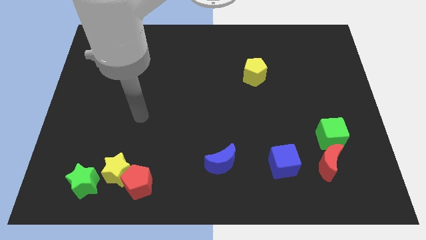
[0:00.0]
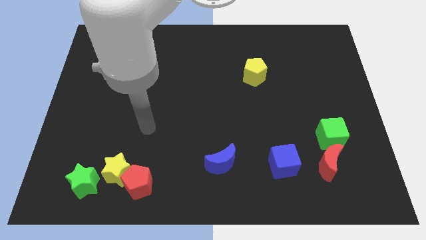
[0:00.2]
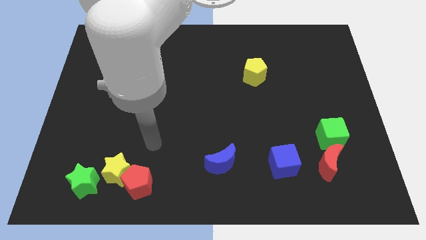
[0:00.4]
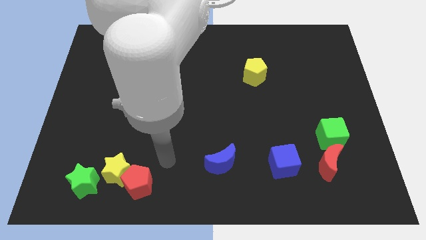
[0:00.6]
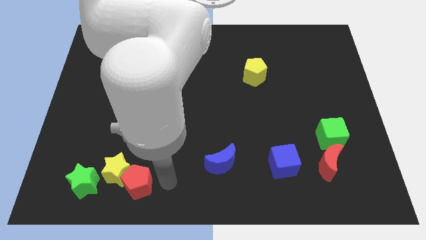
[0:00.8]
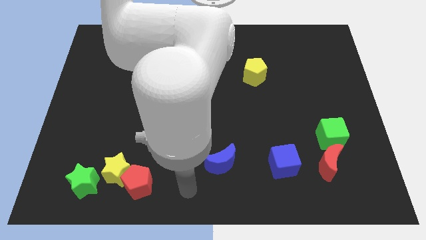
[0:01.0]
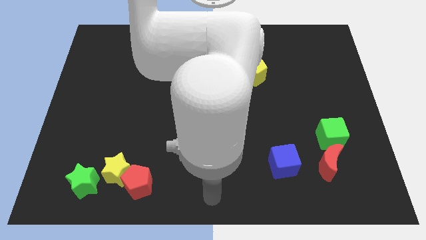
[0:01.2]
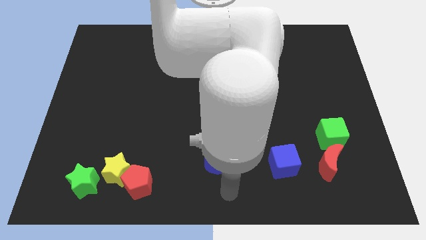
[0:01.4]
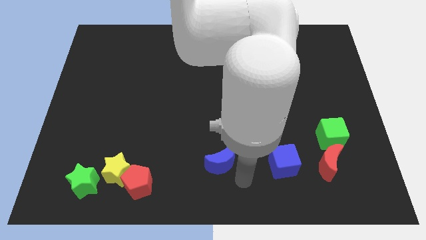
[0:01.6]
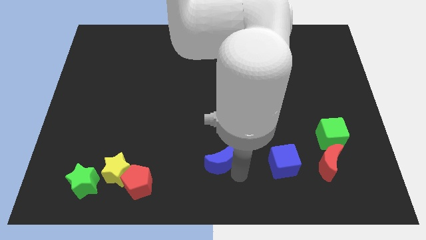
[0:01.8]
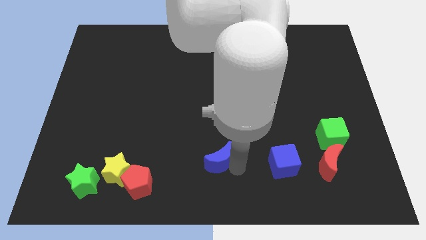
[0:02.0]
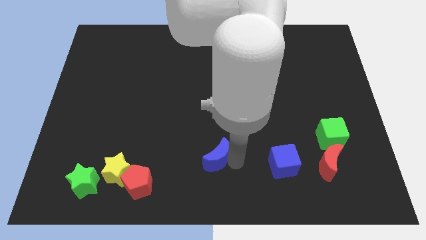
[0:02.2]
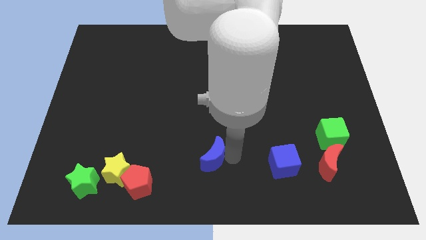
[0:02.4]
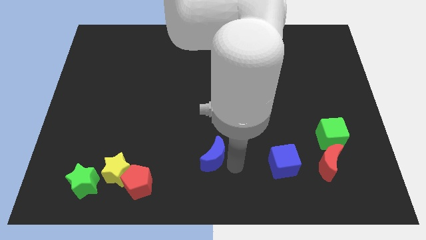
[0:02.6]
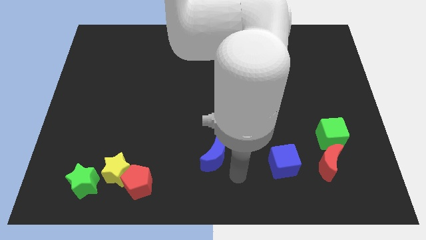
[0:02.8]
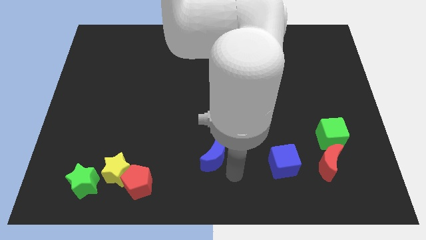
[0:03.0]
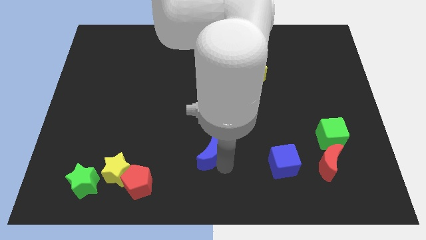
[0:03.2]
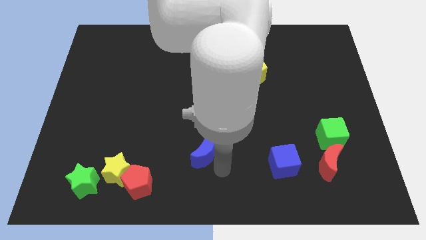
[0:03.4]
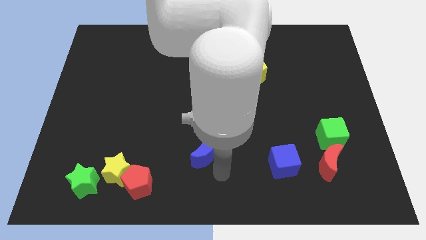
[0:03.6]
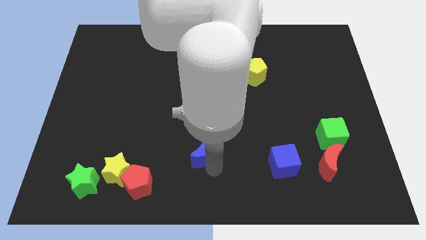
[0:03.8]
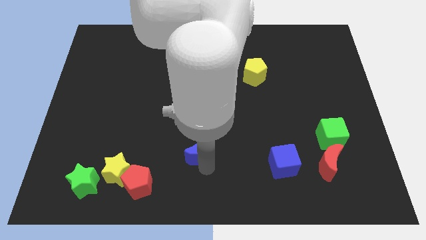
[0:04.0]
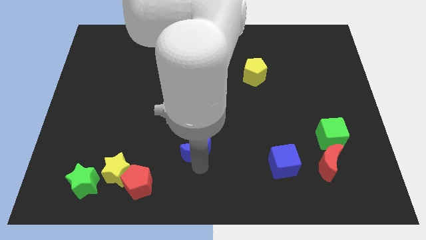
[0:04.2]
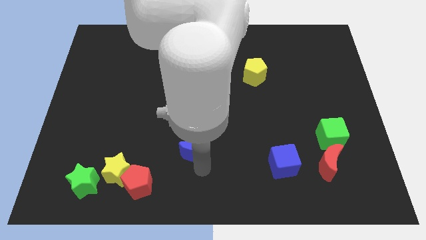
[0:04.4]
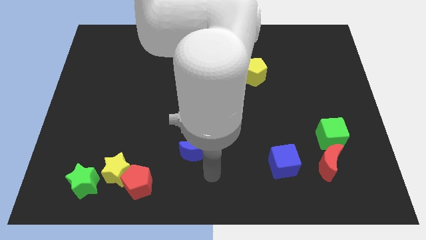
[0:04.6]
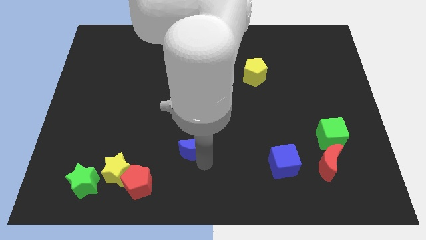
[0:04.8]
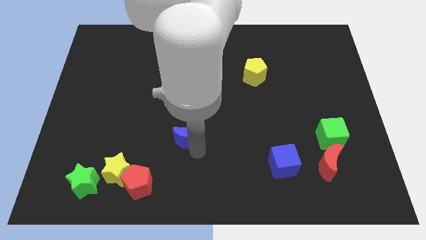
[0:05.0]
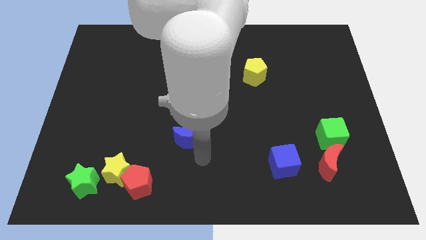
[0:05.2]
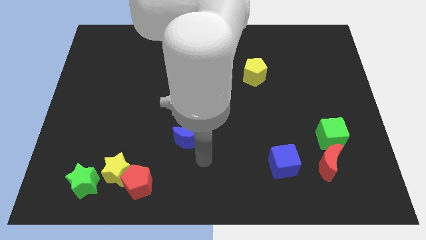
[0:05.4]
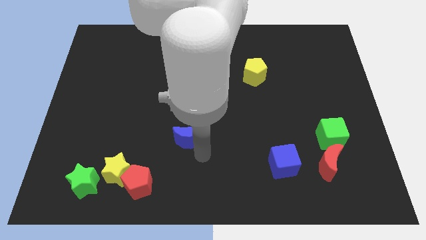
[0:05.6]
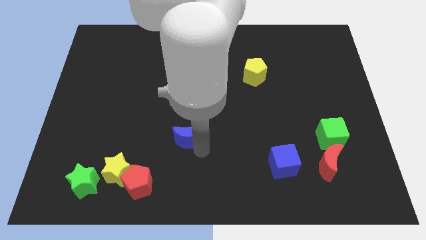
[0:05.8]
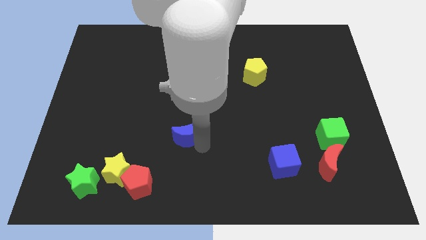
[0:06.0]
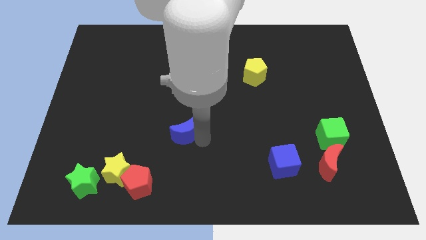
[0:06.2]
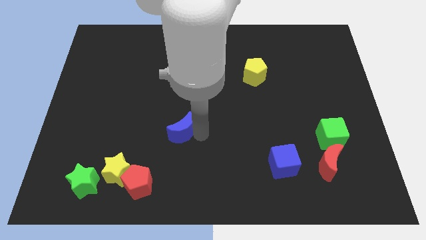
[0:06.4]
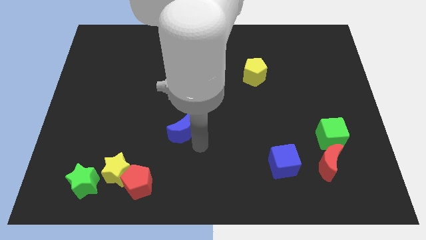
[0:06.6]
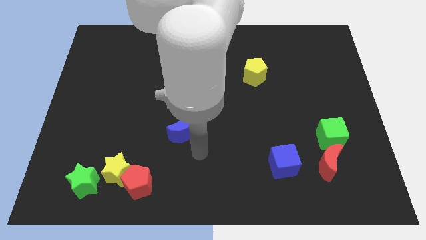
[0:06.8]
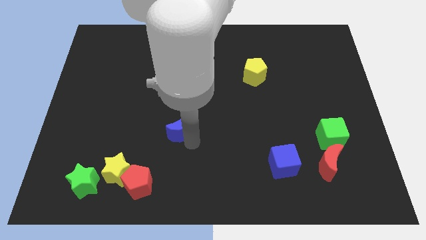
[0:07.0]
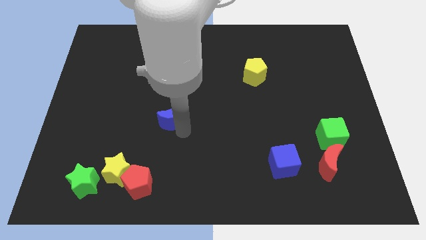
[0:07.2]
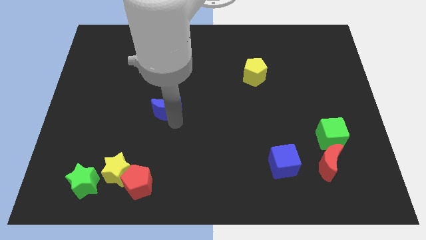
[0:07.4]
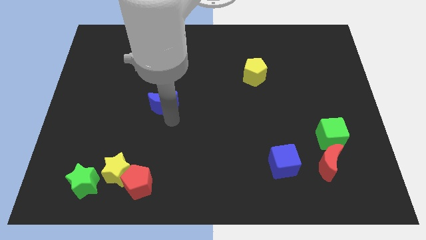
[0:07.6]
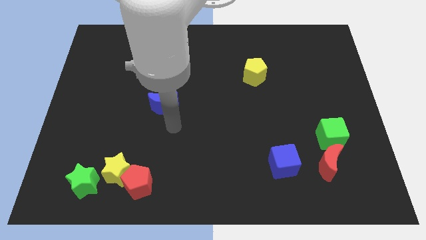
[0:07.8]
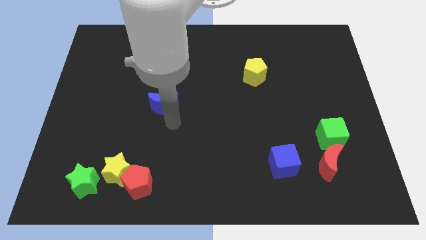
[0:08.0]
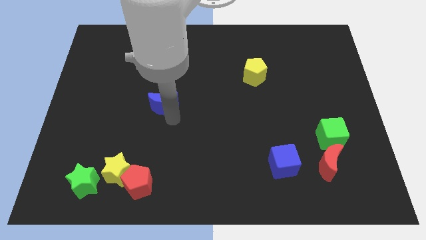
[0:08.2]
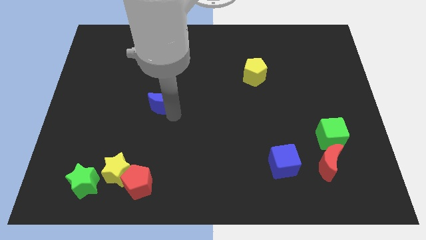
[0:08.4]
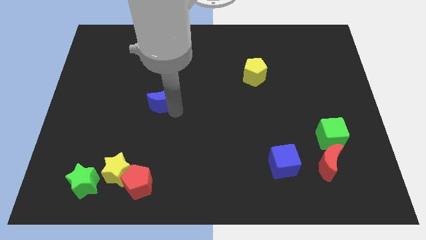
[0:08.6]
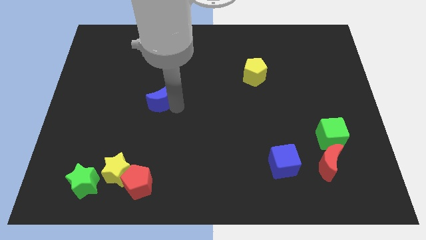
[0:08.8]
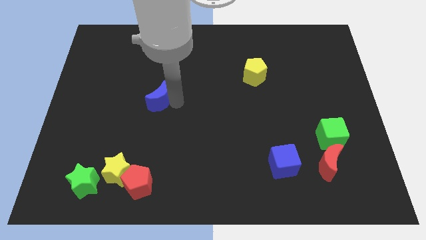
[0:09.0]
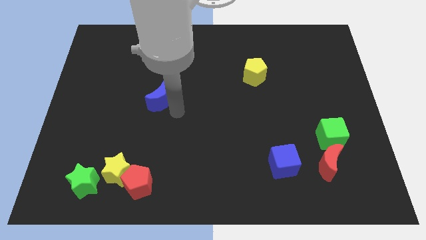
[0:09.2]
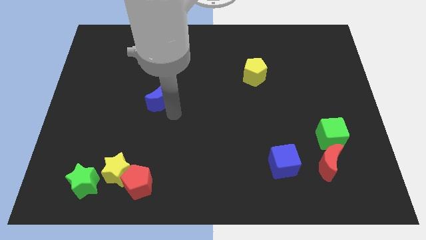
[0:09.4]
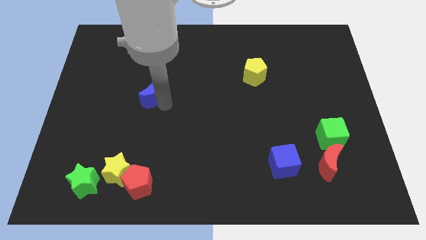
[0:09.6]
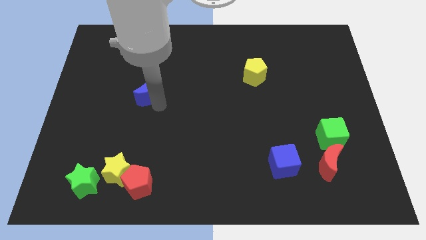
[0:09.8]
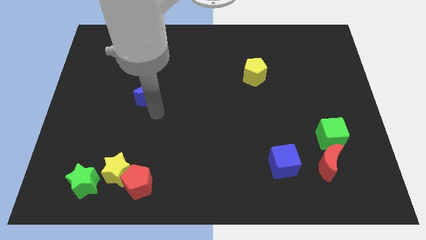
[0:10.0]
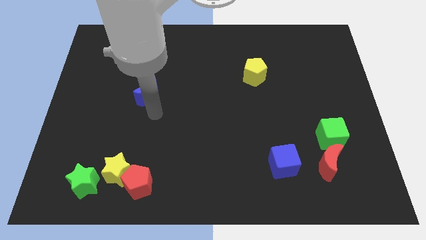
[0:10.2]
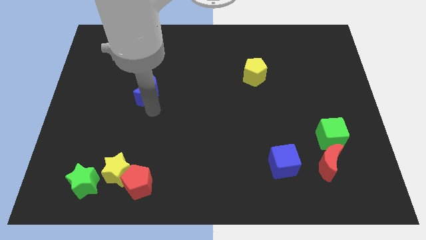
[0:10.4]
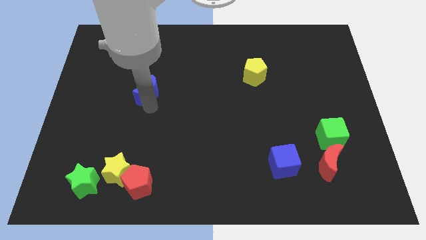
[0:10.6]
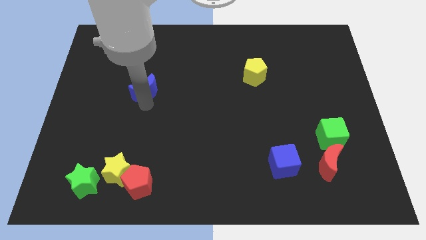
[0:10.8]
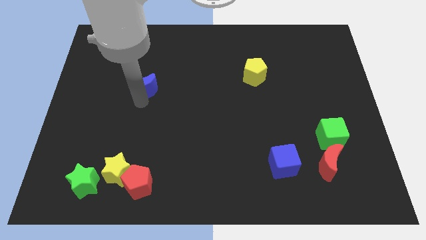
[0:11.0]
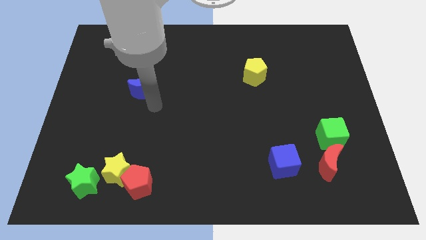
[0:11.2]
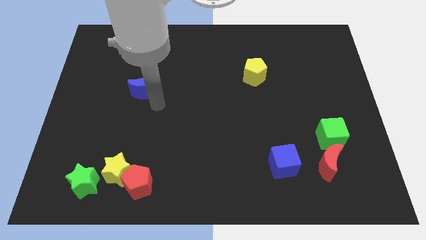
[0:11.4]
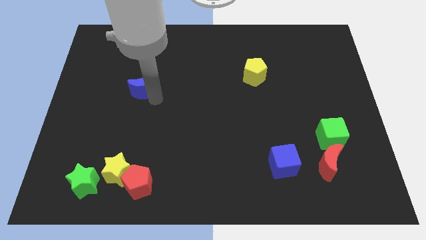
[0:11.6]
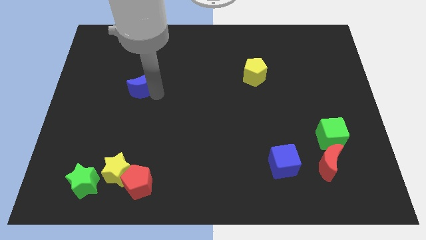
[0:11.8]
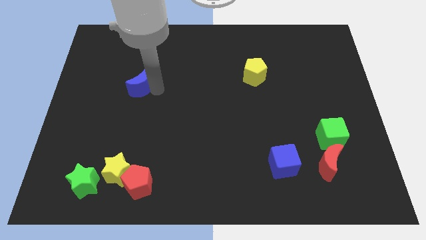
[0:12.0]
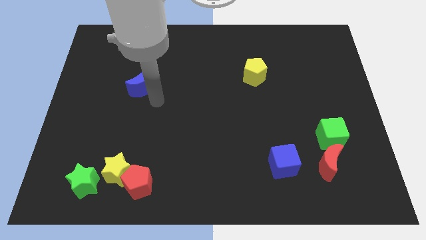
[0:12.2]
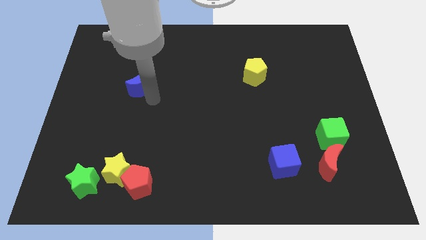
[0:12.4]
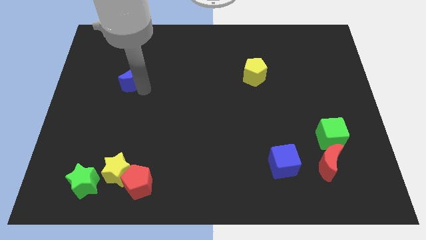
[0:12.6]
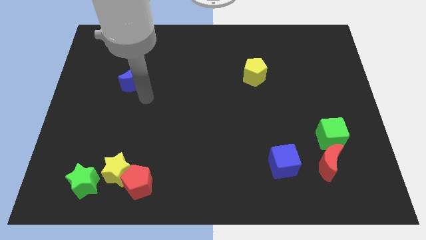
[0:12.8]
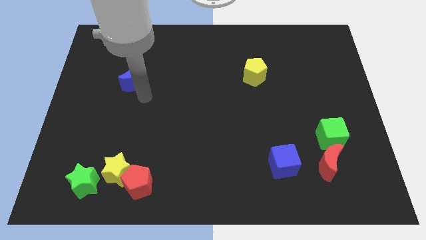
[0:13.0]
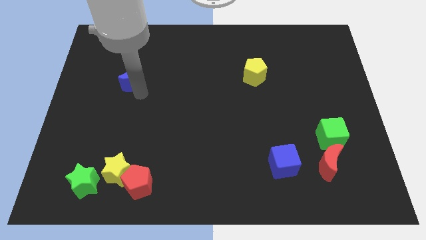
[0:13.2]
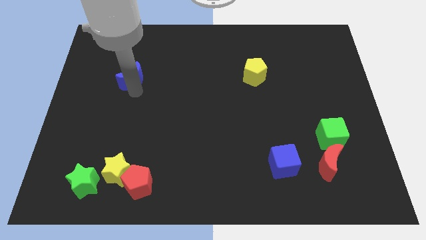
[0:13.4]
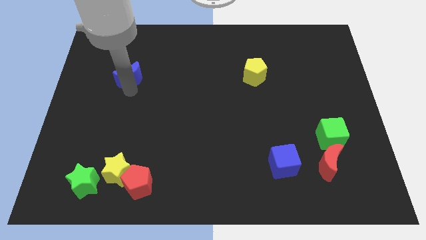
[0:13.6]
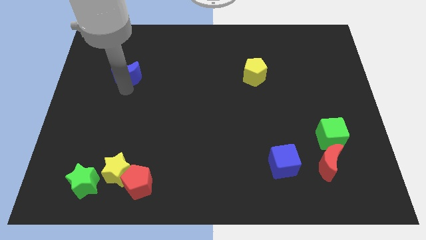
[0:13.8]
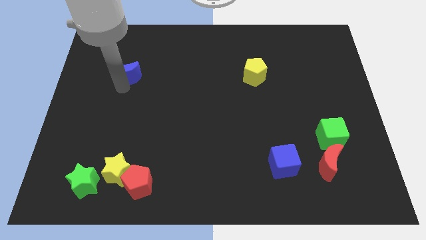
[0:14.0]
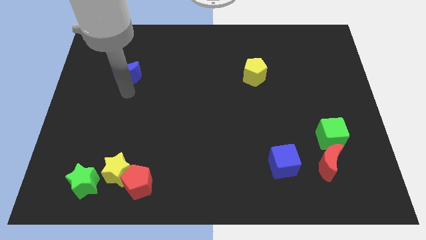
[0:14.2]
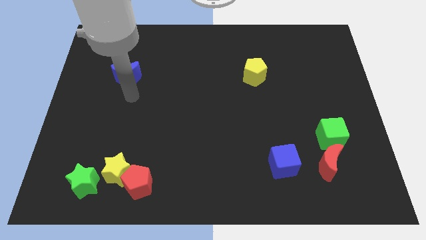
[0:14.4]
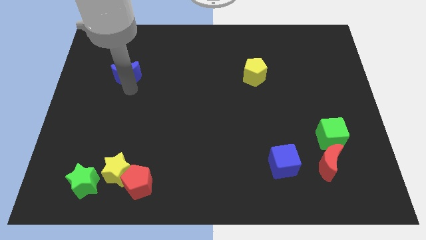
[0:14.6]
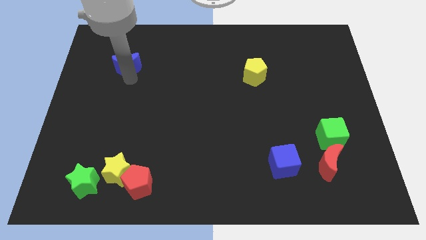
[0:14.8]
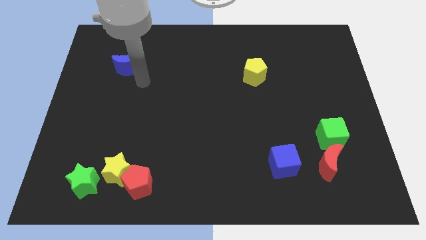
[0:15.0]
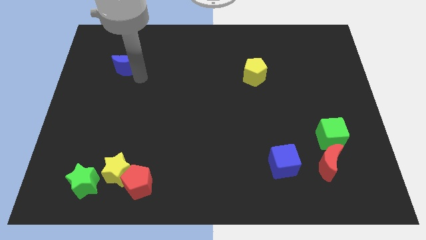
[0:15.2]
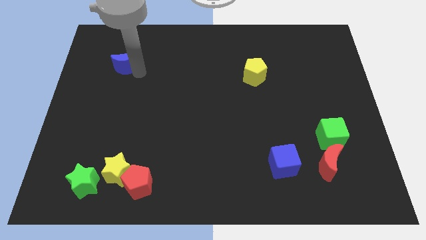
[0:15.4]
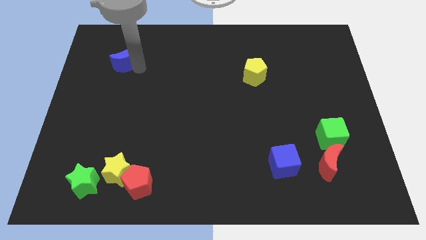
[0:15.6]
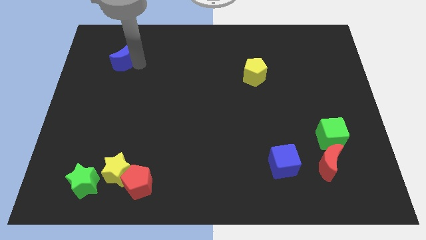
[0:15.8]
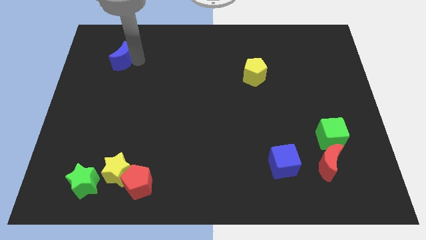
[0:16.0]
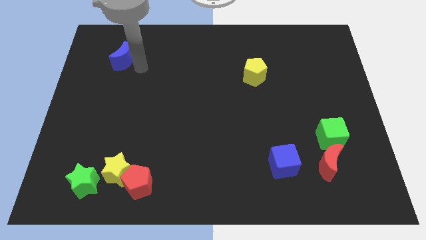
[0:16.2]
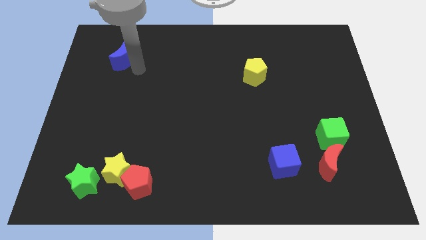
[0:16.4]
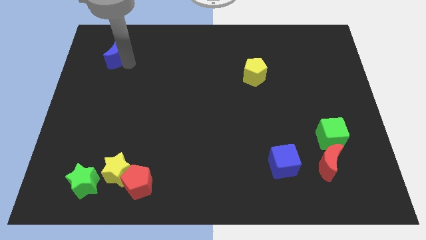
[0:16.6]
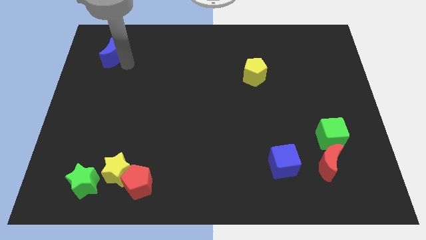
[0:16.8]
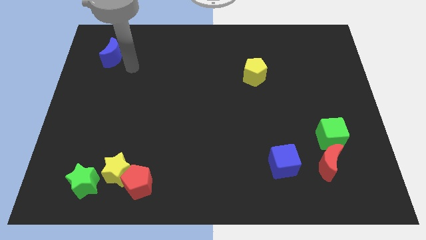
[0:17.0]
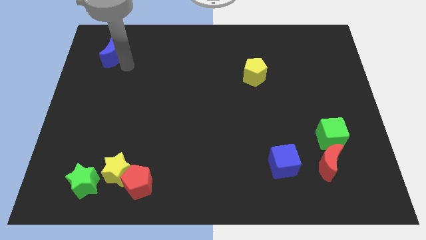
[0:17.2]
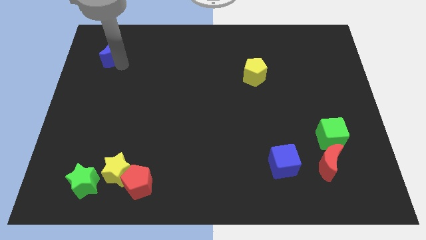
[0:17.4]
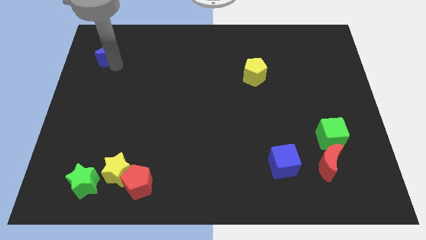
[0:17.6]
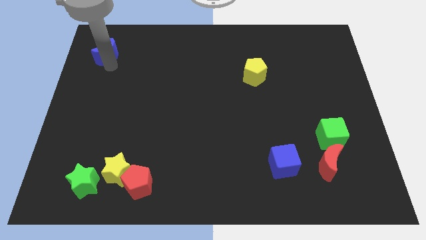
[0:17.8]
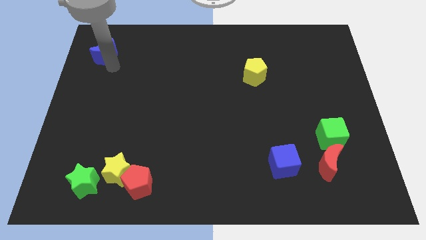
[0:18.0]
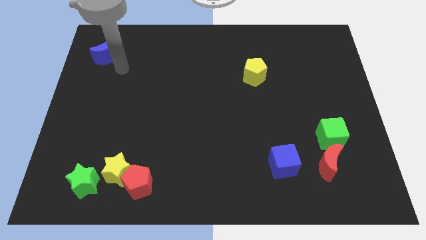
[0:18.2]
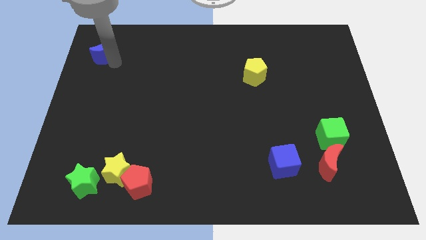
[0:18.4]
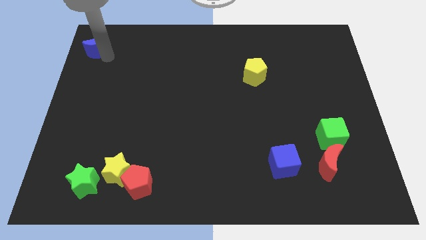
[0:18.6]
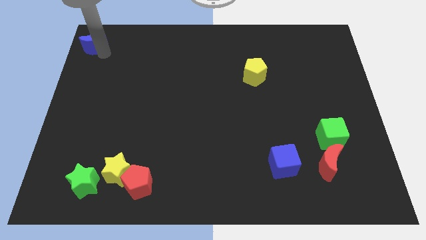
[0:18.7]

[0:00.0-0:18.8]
put the blue moon to the top left
